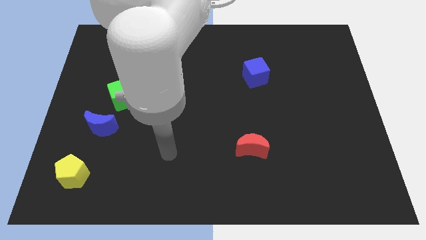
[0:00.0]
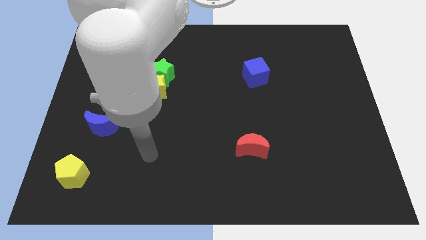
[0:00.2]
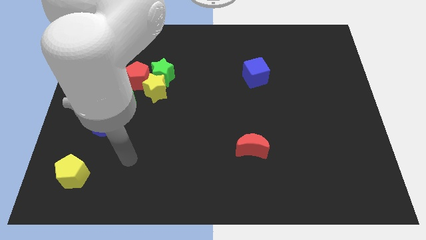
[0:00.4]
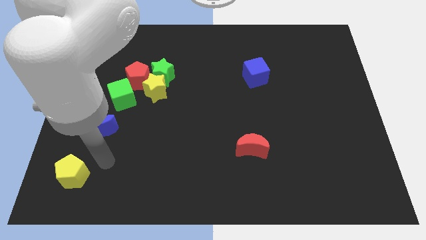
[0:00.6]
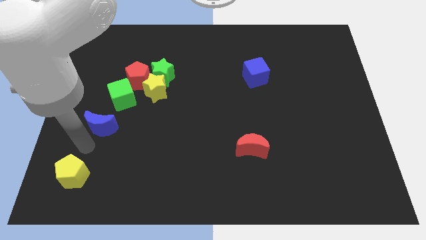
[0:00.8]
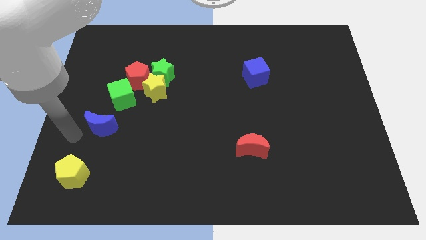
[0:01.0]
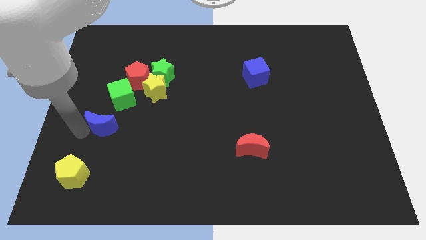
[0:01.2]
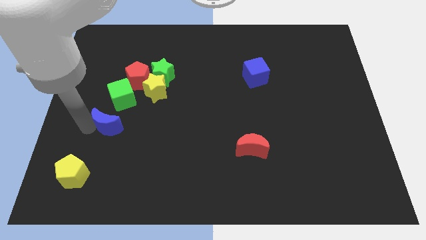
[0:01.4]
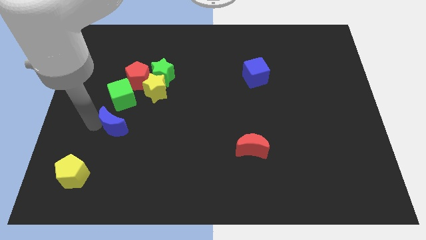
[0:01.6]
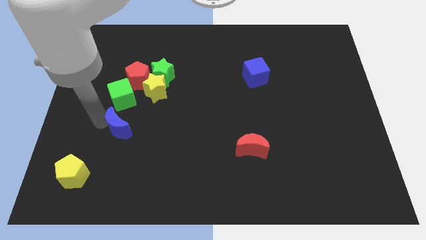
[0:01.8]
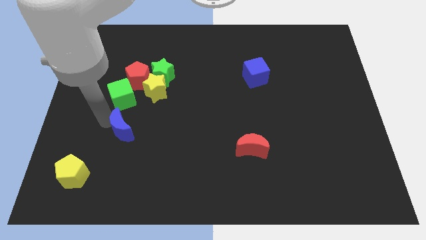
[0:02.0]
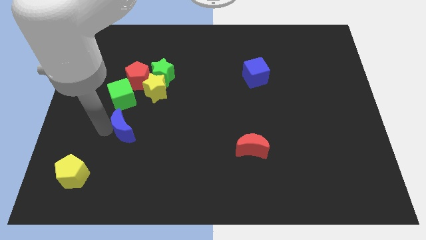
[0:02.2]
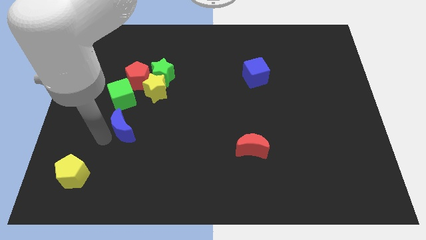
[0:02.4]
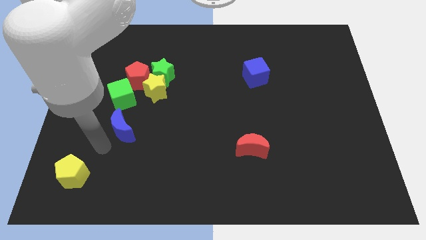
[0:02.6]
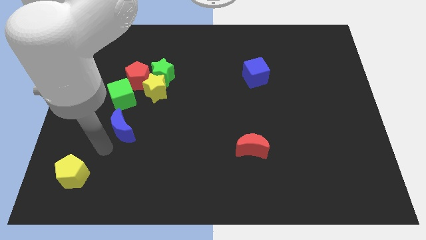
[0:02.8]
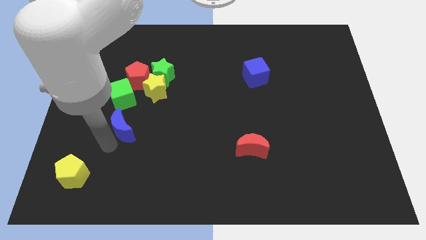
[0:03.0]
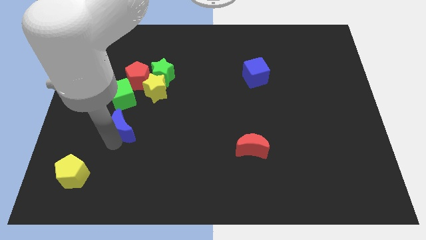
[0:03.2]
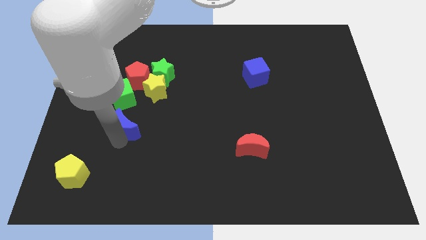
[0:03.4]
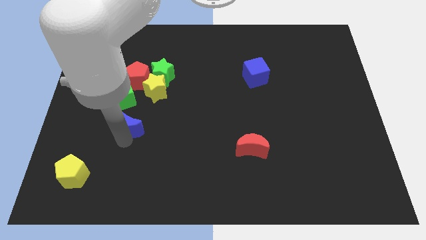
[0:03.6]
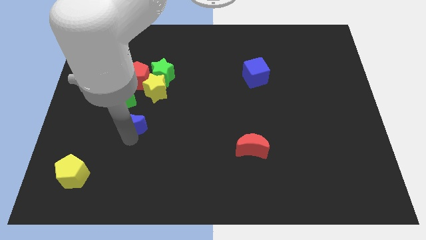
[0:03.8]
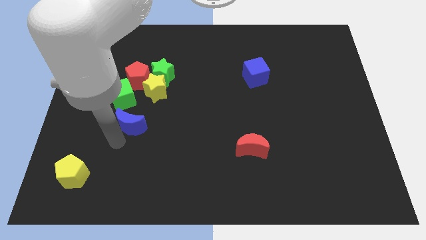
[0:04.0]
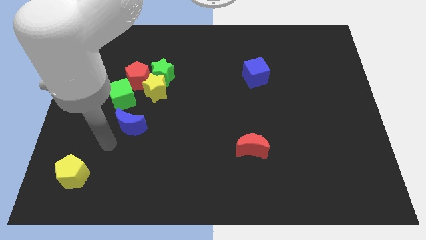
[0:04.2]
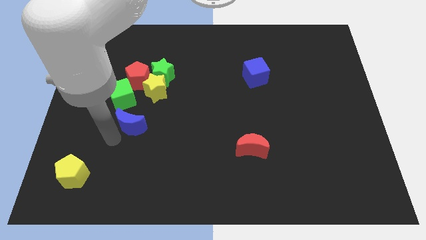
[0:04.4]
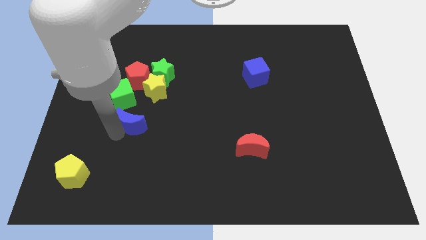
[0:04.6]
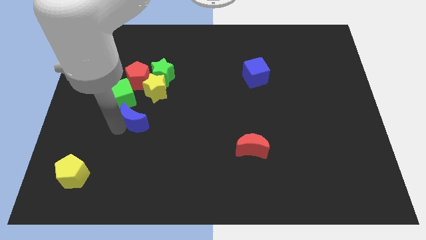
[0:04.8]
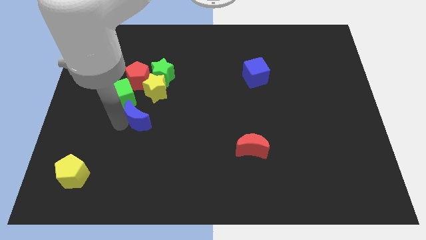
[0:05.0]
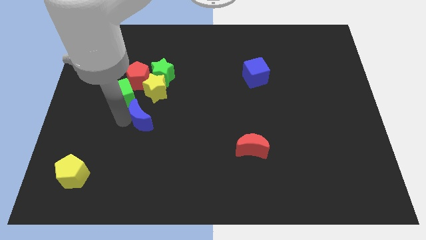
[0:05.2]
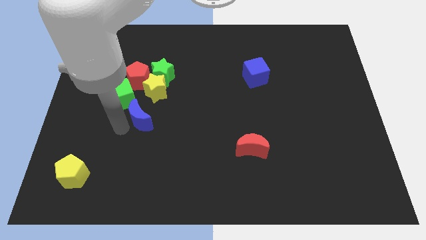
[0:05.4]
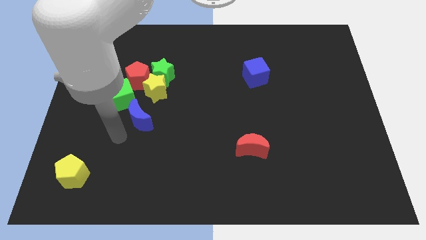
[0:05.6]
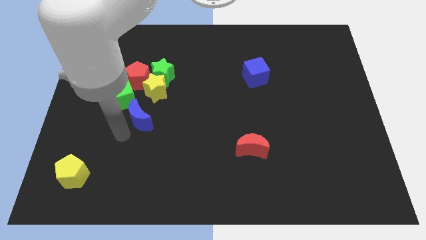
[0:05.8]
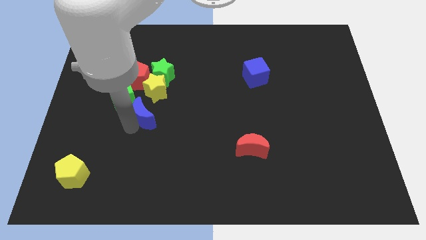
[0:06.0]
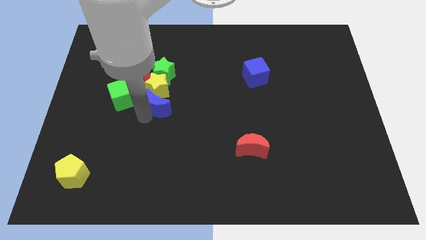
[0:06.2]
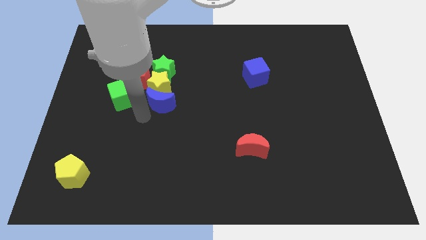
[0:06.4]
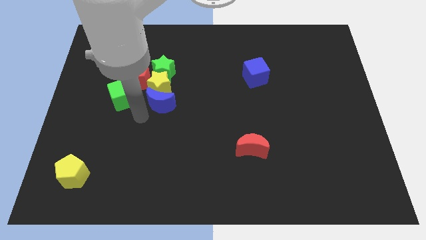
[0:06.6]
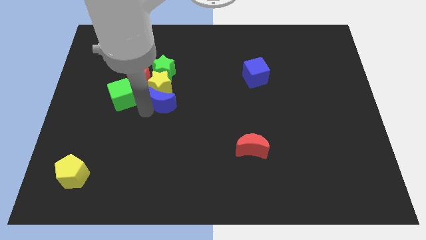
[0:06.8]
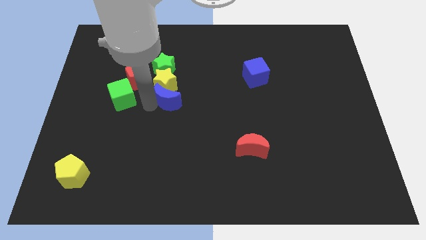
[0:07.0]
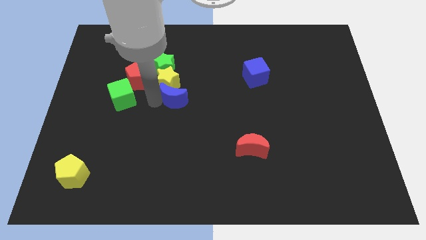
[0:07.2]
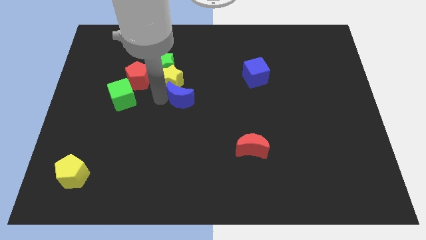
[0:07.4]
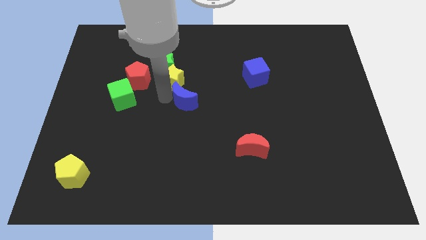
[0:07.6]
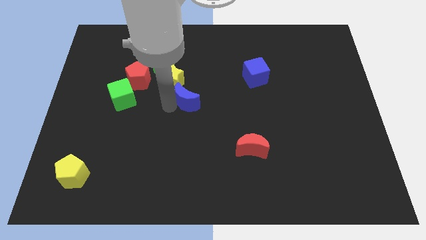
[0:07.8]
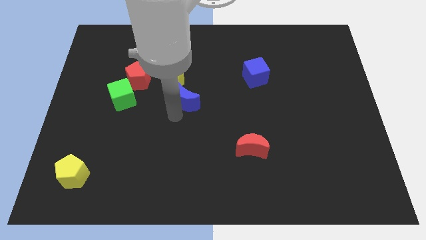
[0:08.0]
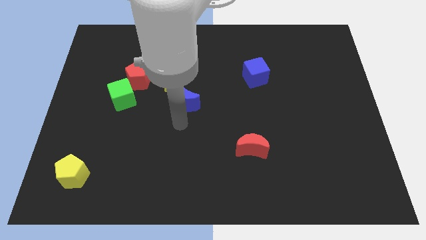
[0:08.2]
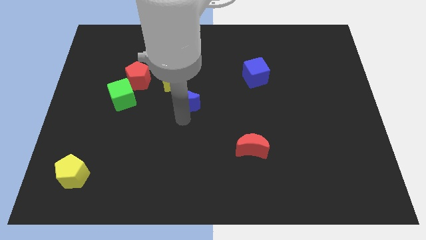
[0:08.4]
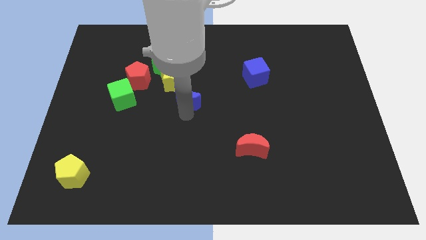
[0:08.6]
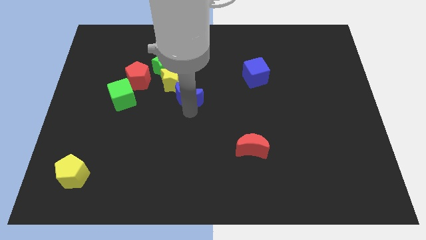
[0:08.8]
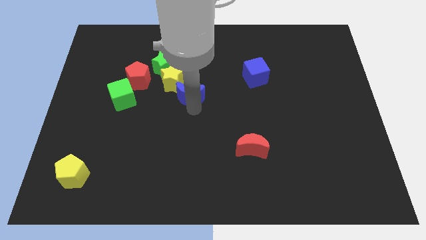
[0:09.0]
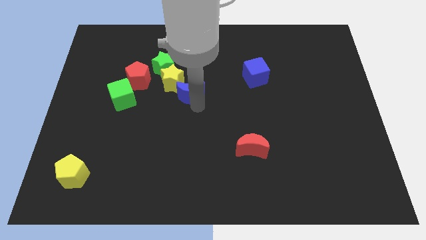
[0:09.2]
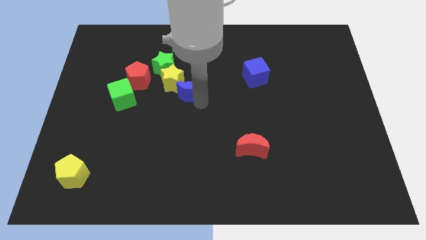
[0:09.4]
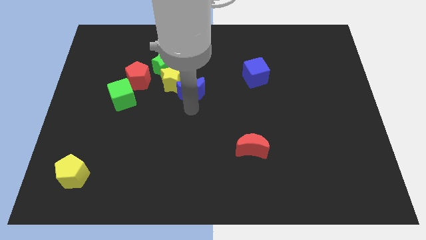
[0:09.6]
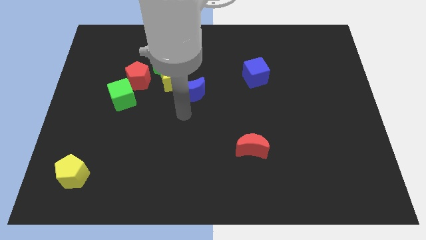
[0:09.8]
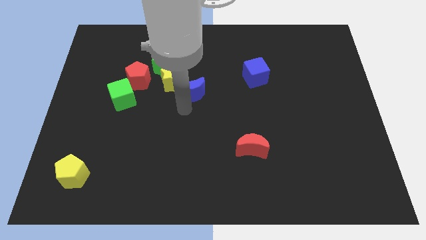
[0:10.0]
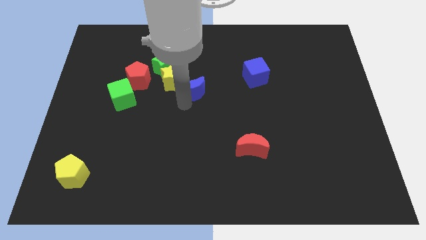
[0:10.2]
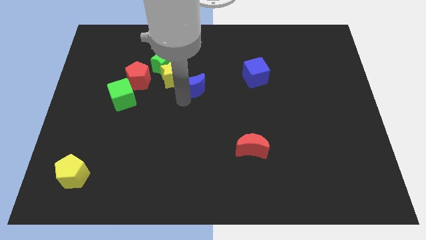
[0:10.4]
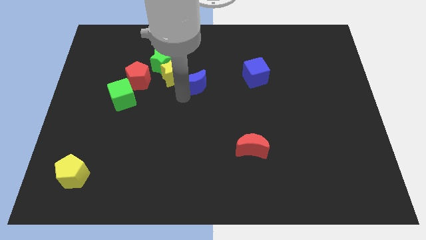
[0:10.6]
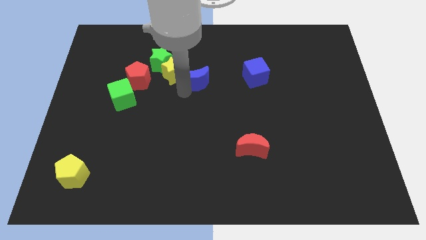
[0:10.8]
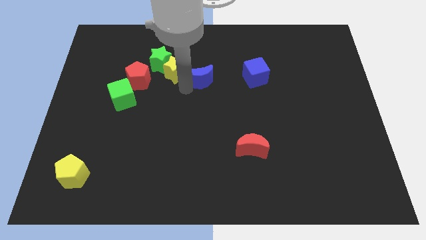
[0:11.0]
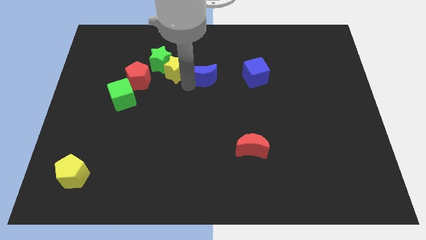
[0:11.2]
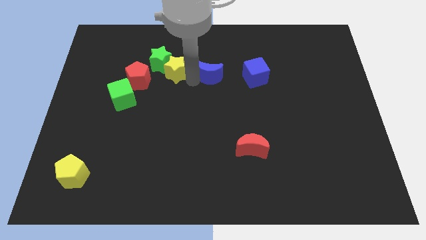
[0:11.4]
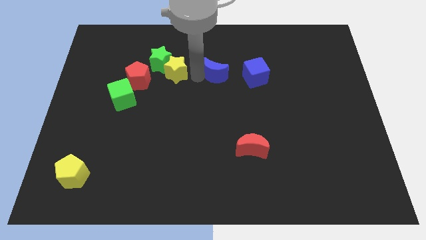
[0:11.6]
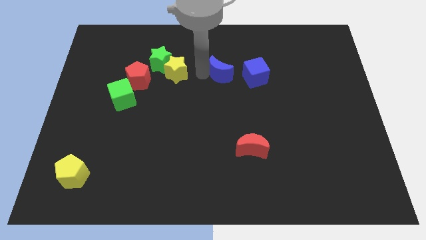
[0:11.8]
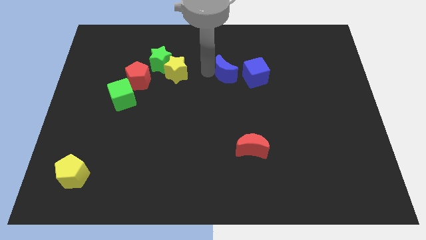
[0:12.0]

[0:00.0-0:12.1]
move the blue moon diagonally up and to the left of the blue cube

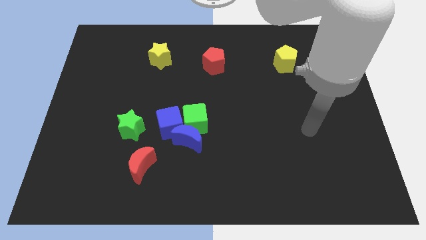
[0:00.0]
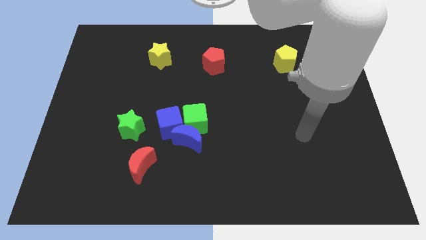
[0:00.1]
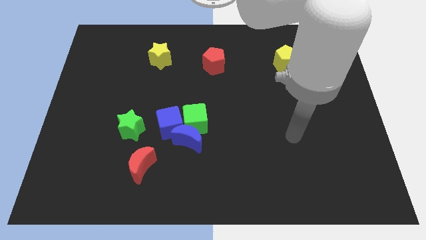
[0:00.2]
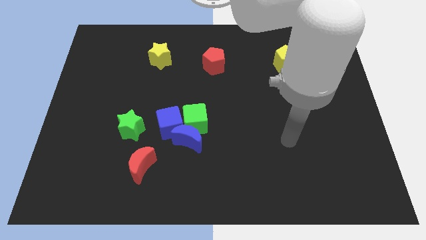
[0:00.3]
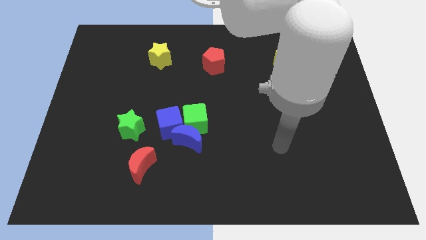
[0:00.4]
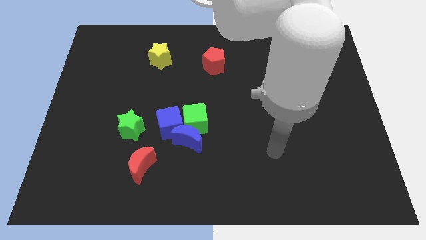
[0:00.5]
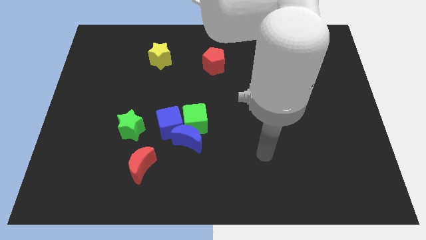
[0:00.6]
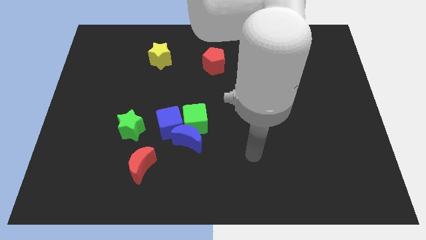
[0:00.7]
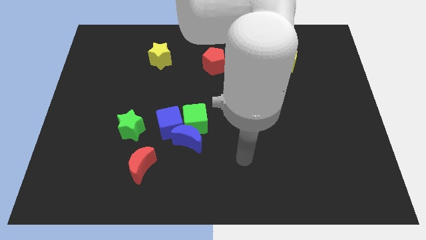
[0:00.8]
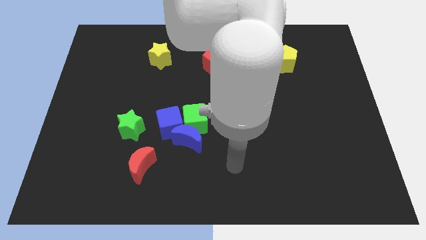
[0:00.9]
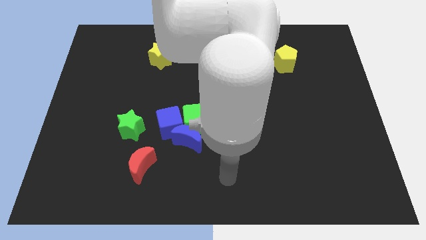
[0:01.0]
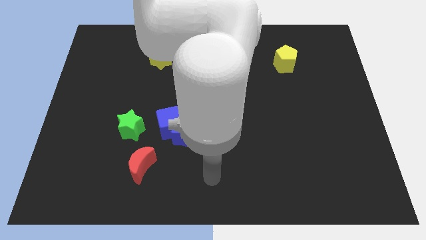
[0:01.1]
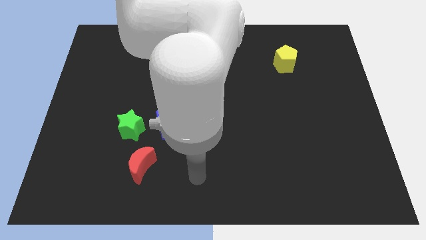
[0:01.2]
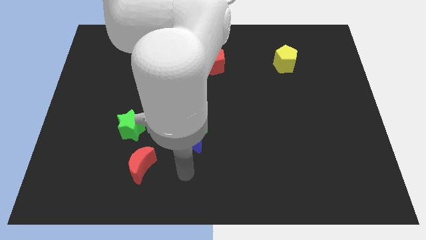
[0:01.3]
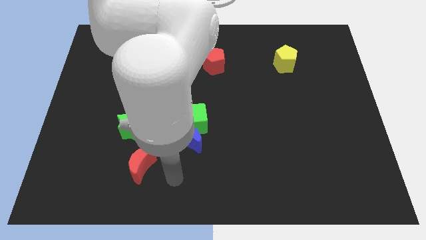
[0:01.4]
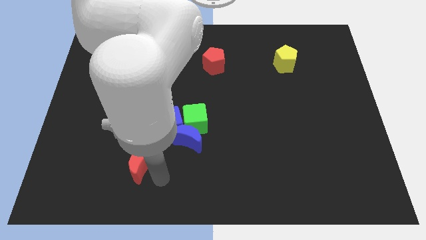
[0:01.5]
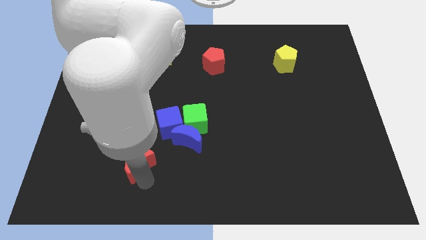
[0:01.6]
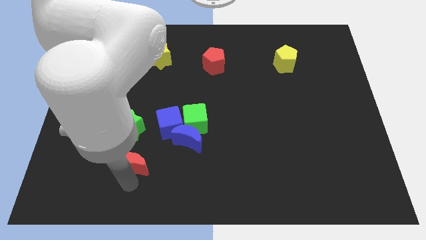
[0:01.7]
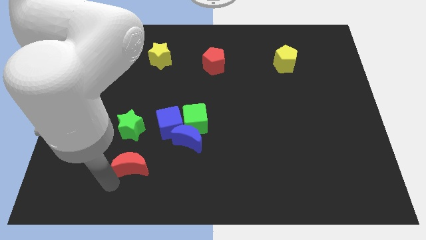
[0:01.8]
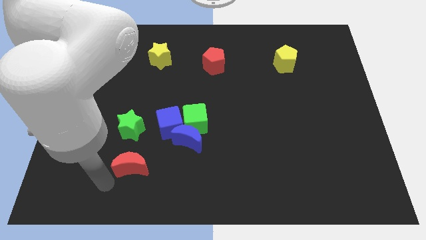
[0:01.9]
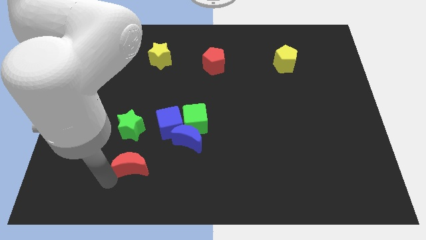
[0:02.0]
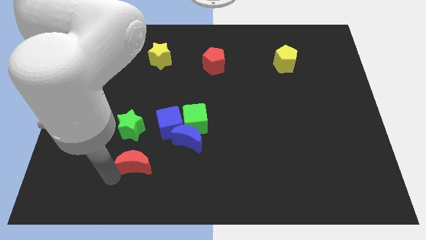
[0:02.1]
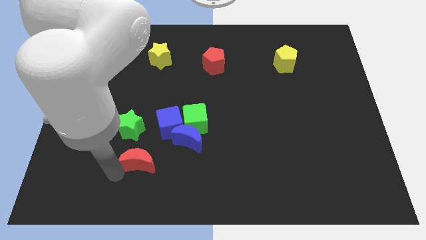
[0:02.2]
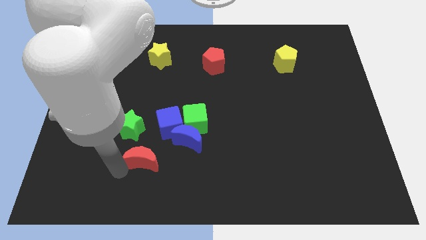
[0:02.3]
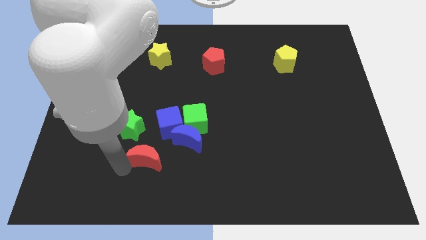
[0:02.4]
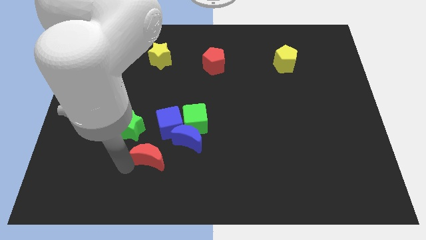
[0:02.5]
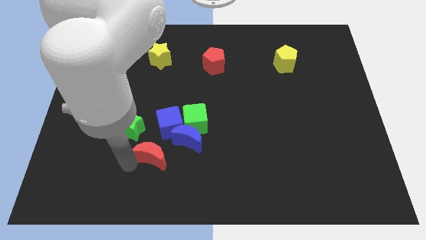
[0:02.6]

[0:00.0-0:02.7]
put the red moon diagonally down and to the left of the green cube
